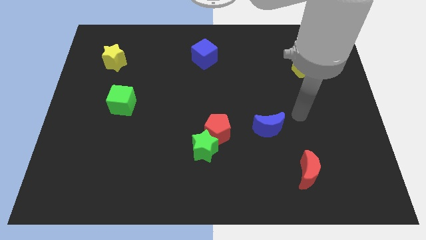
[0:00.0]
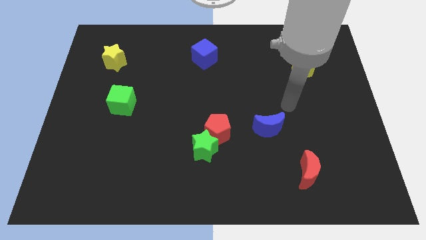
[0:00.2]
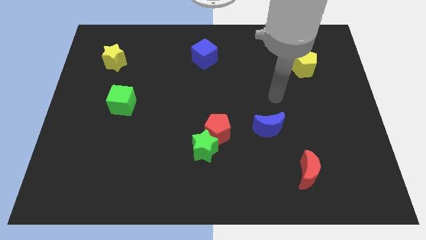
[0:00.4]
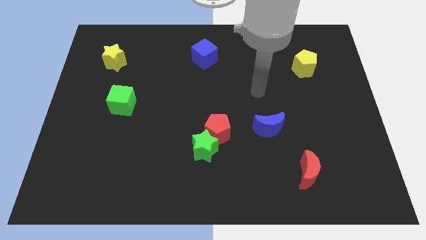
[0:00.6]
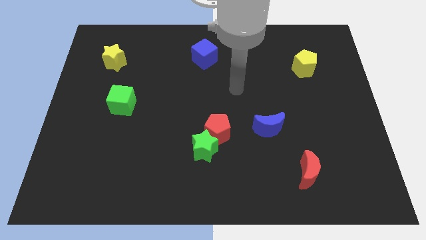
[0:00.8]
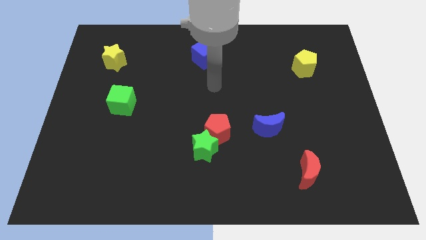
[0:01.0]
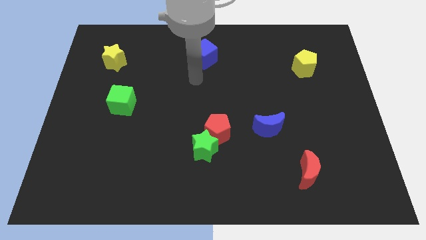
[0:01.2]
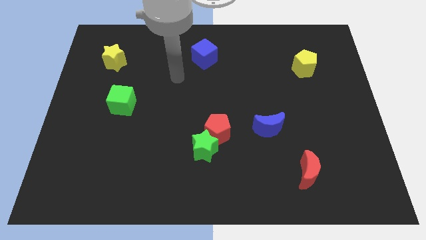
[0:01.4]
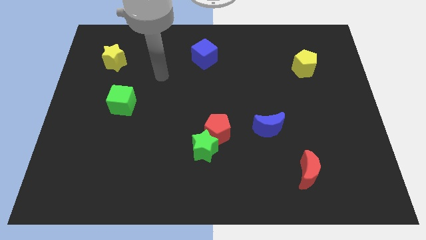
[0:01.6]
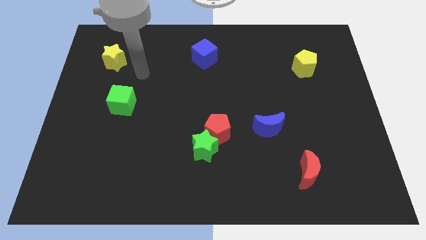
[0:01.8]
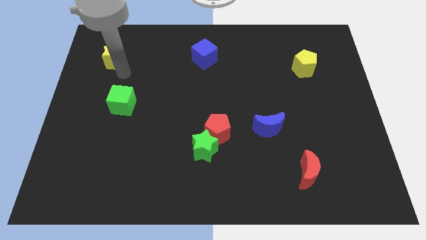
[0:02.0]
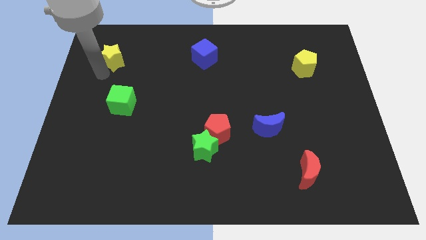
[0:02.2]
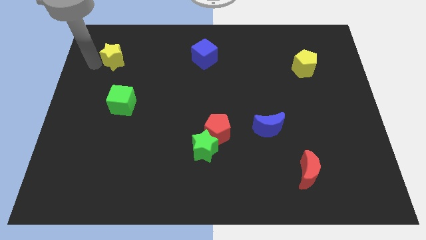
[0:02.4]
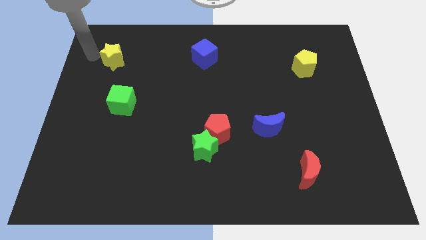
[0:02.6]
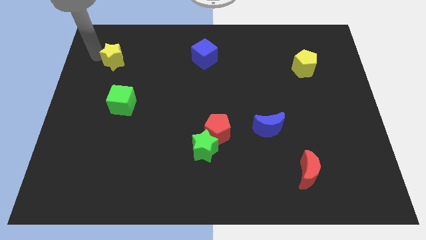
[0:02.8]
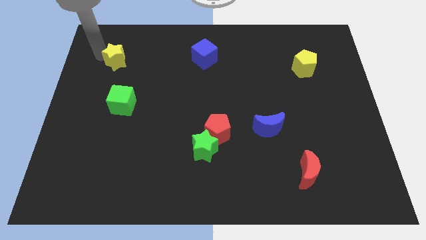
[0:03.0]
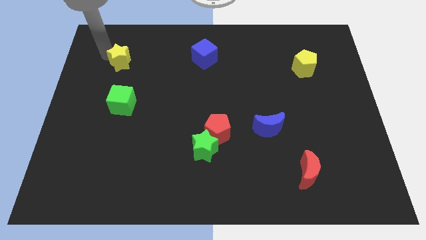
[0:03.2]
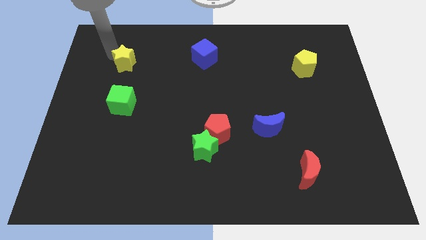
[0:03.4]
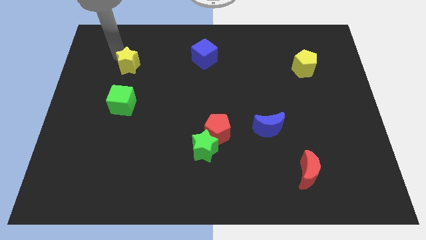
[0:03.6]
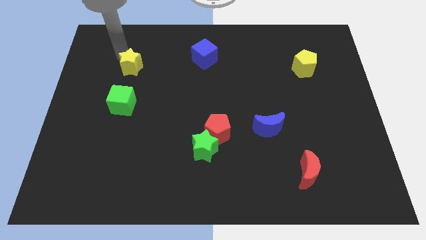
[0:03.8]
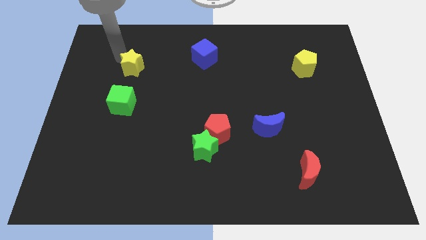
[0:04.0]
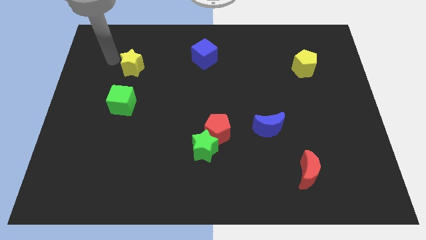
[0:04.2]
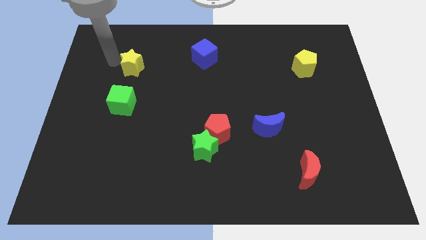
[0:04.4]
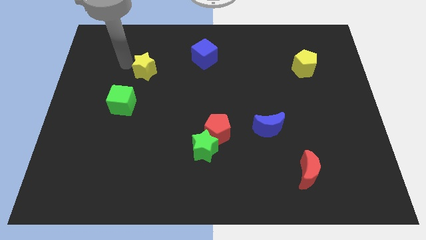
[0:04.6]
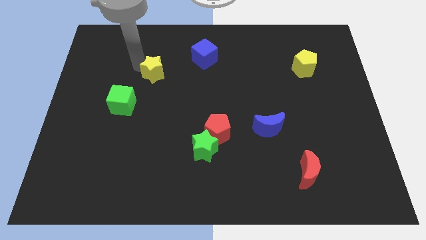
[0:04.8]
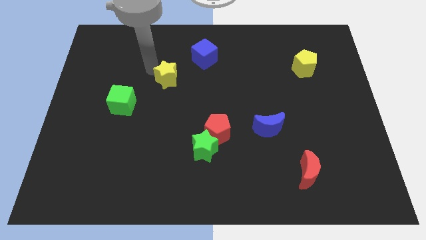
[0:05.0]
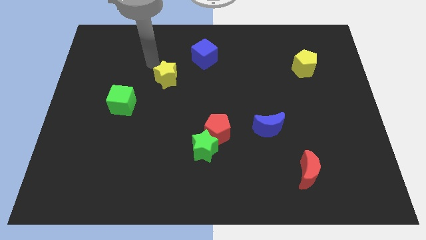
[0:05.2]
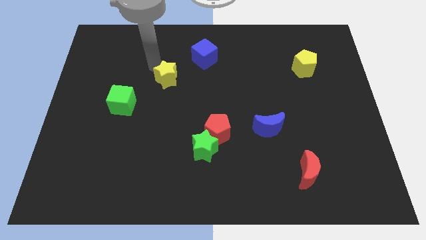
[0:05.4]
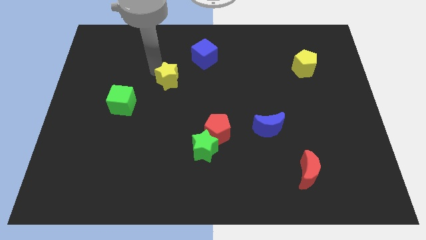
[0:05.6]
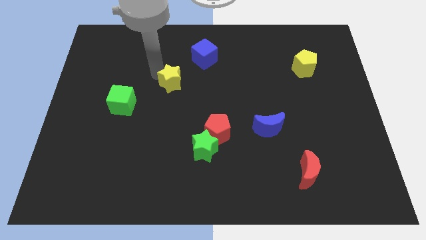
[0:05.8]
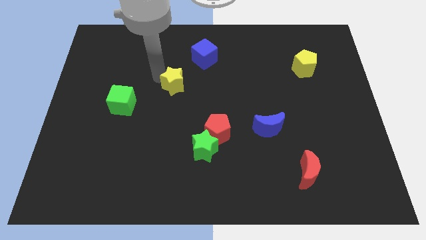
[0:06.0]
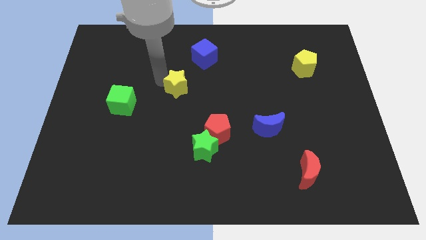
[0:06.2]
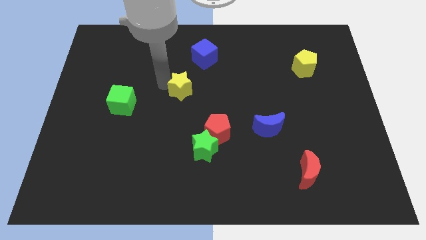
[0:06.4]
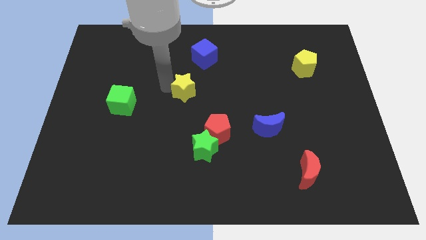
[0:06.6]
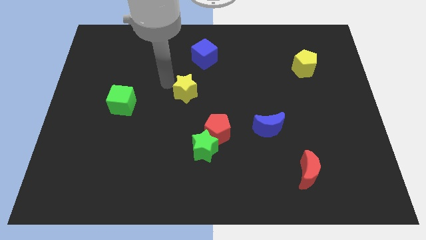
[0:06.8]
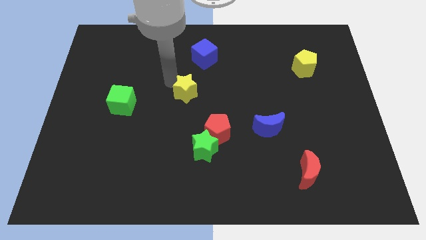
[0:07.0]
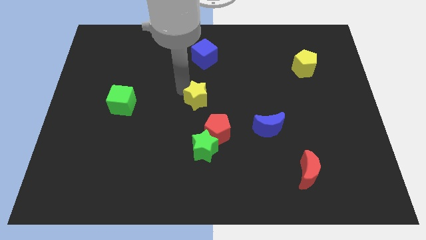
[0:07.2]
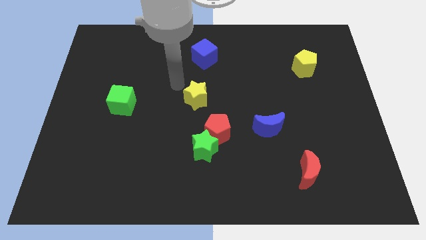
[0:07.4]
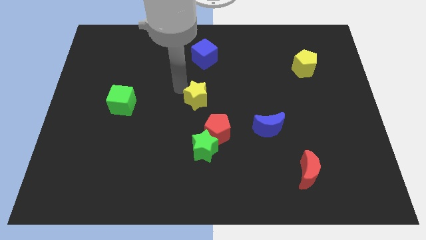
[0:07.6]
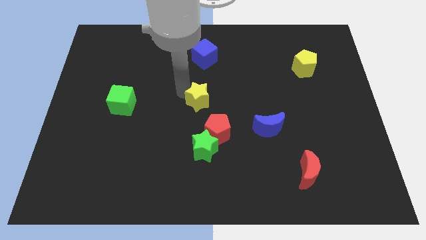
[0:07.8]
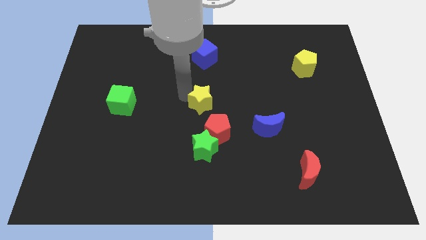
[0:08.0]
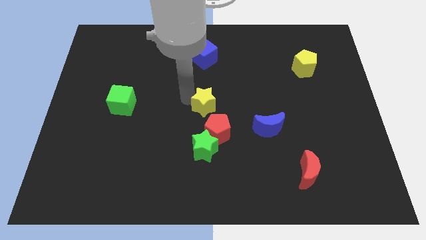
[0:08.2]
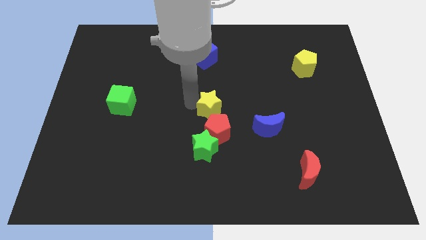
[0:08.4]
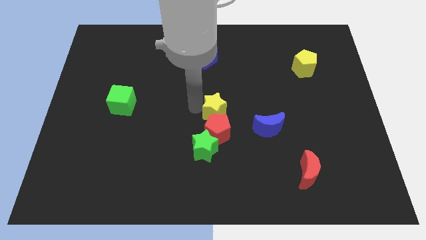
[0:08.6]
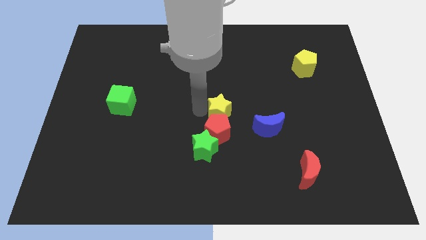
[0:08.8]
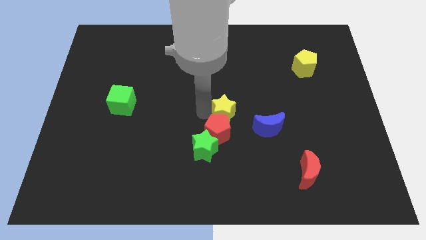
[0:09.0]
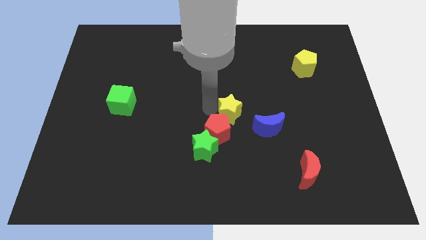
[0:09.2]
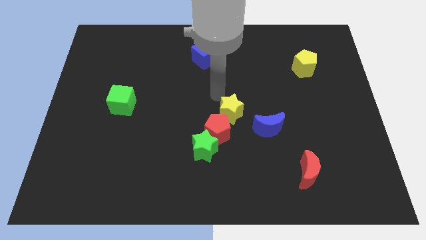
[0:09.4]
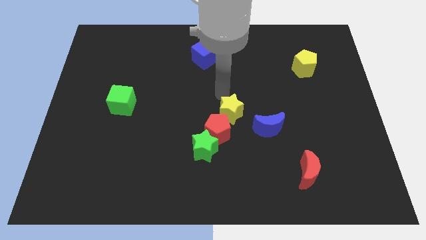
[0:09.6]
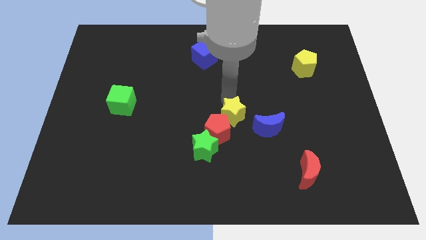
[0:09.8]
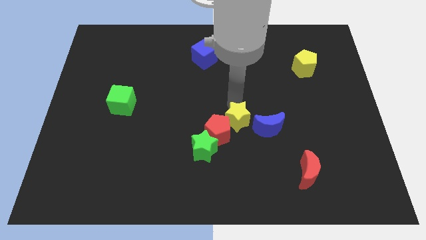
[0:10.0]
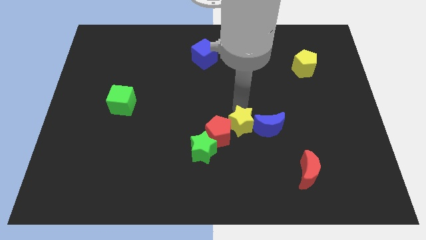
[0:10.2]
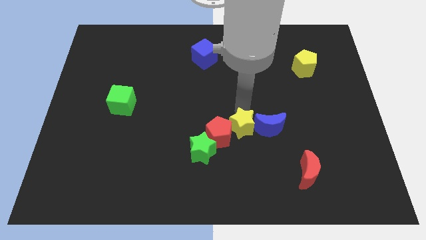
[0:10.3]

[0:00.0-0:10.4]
push the yellow star to the bottom left of the blue moon
